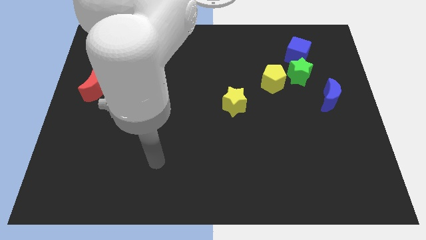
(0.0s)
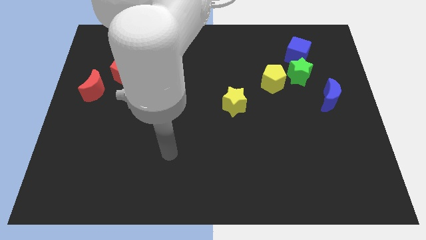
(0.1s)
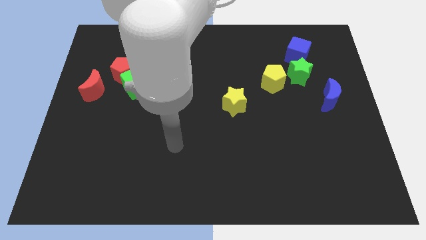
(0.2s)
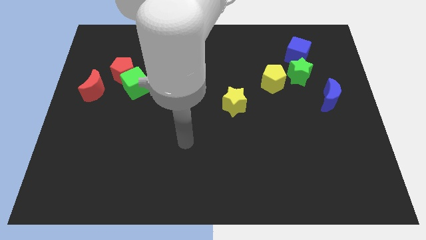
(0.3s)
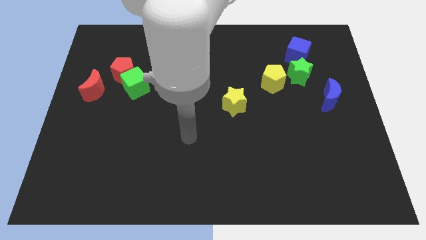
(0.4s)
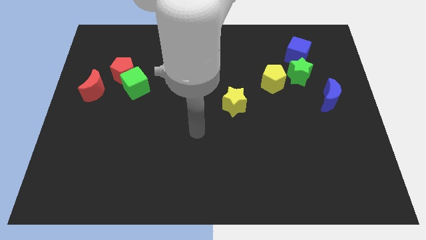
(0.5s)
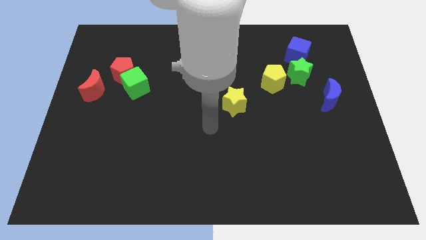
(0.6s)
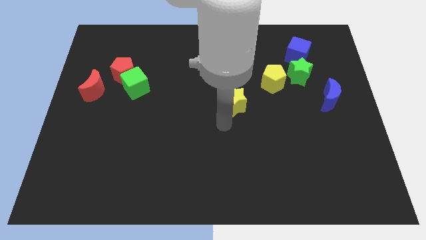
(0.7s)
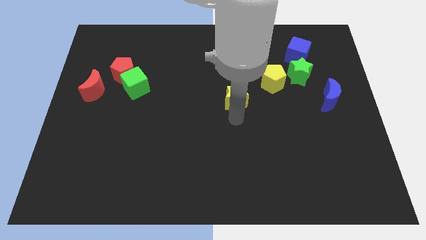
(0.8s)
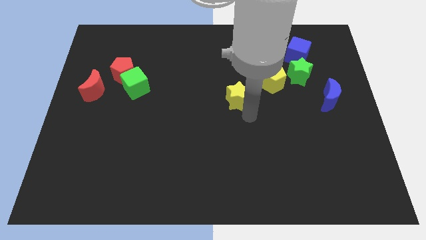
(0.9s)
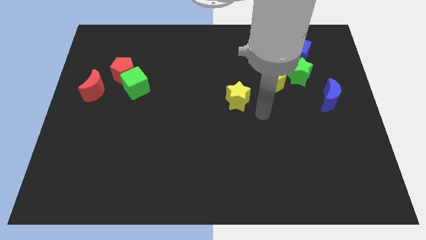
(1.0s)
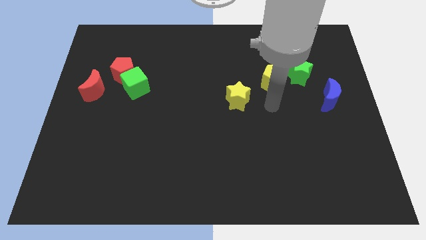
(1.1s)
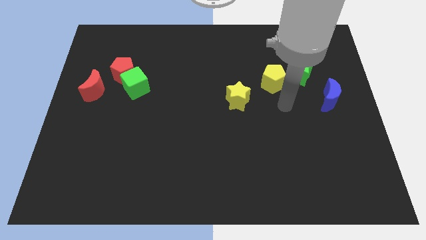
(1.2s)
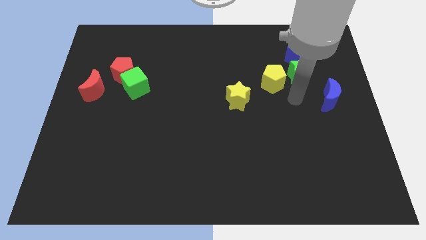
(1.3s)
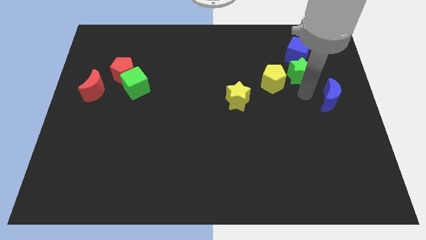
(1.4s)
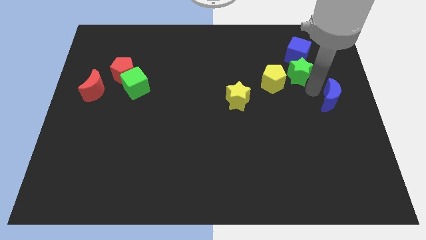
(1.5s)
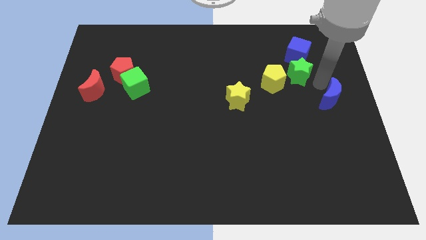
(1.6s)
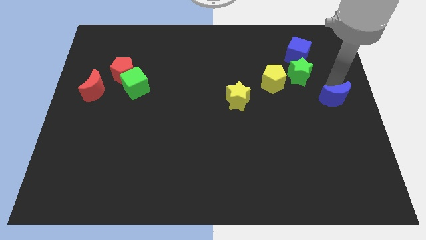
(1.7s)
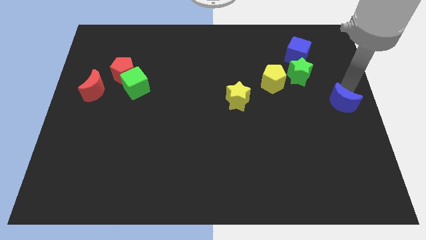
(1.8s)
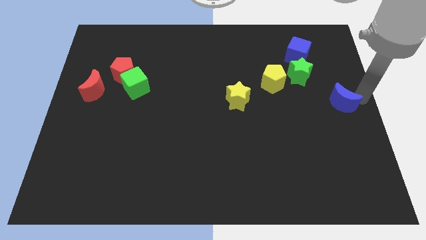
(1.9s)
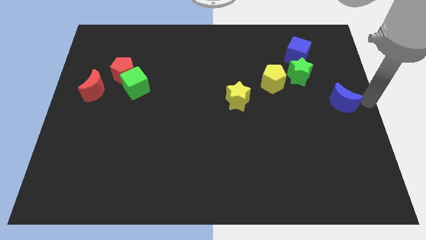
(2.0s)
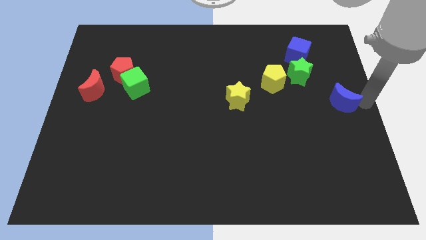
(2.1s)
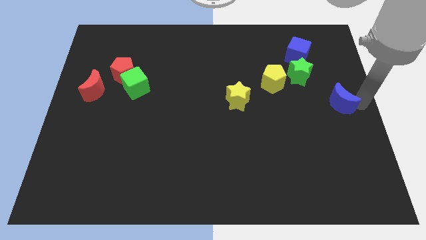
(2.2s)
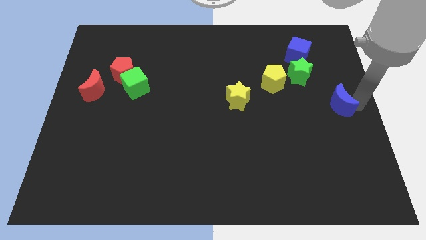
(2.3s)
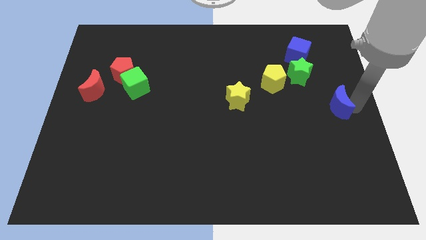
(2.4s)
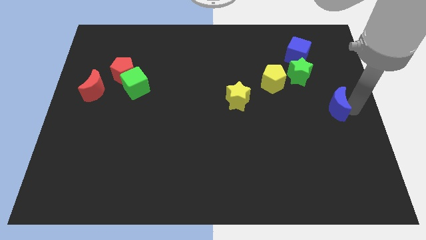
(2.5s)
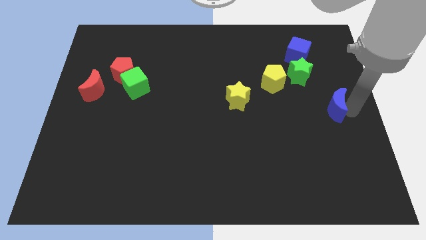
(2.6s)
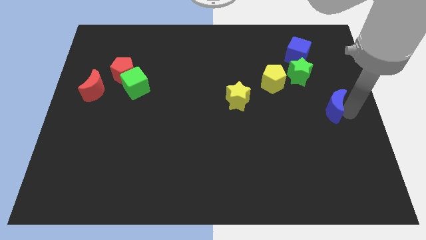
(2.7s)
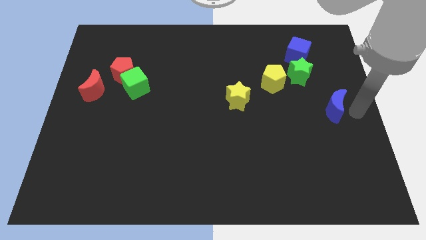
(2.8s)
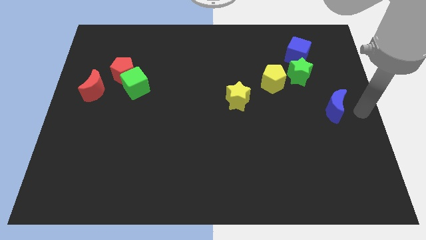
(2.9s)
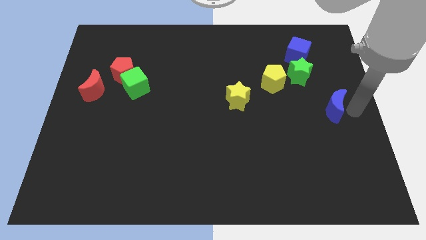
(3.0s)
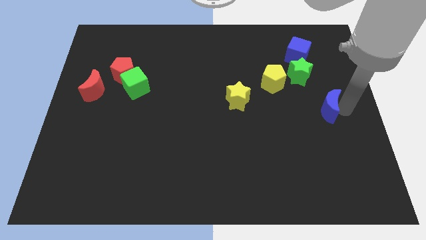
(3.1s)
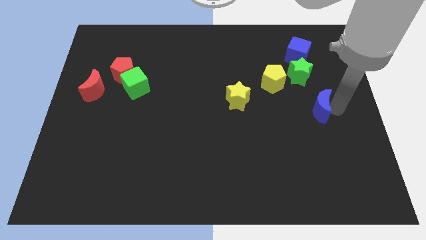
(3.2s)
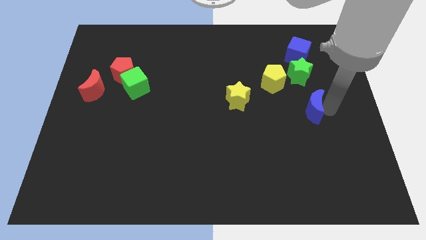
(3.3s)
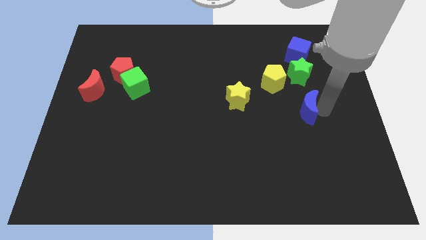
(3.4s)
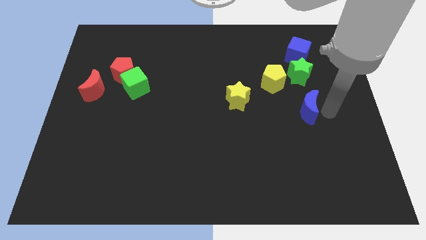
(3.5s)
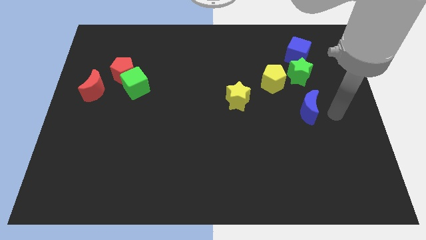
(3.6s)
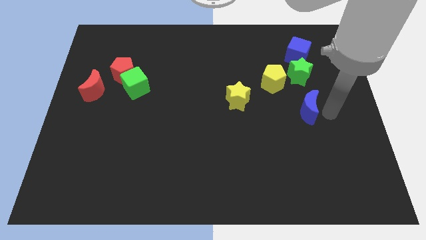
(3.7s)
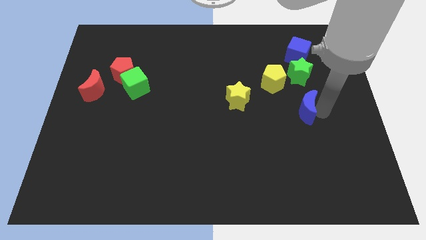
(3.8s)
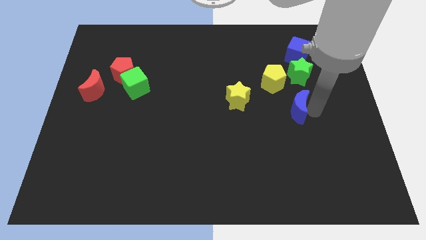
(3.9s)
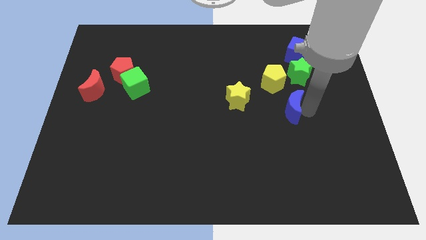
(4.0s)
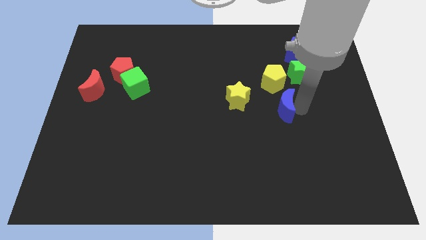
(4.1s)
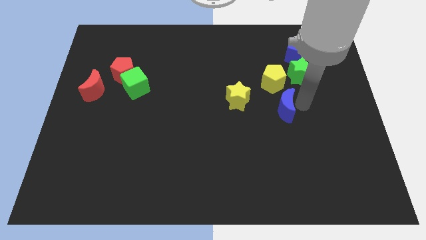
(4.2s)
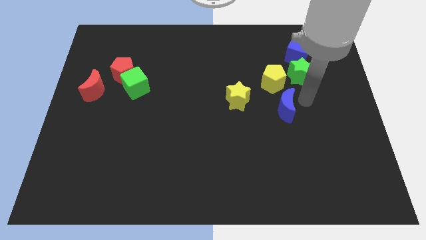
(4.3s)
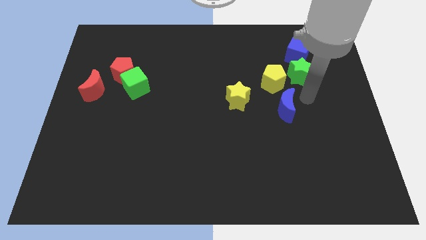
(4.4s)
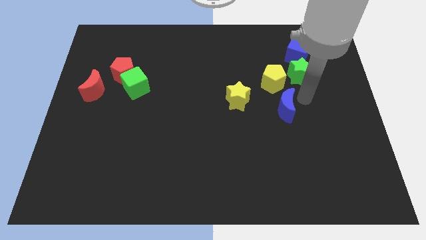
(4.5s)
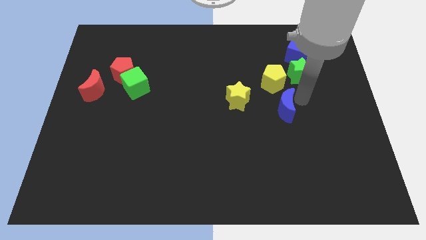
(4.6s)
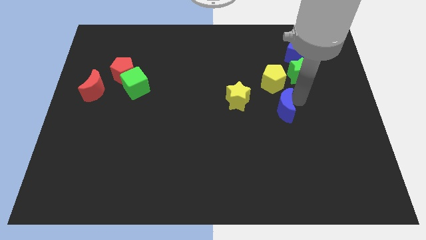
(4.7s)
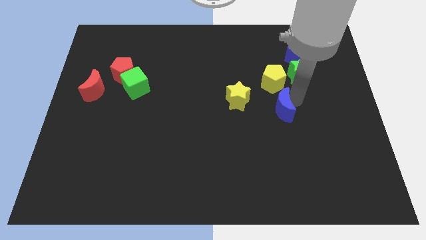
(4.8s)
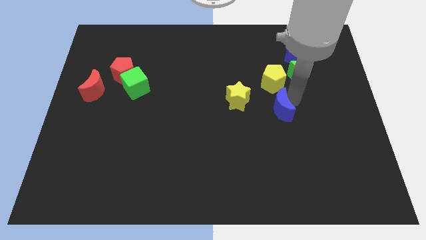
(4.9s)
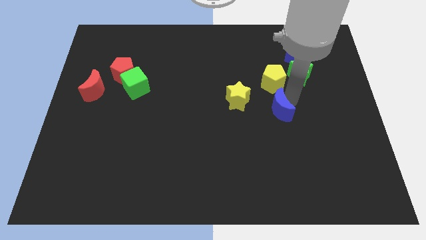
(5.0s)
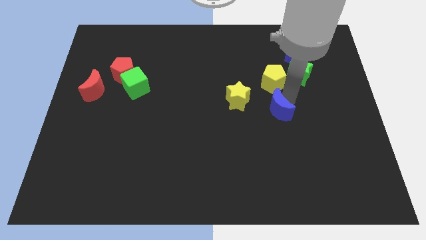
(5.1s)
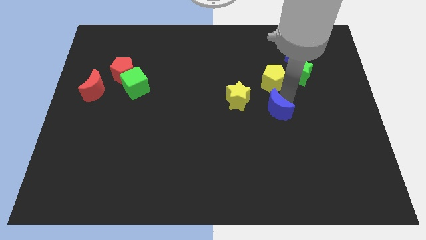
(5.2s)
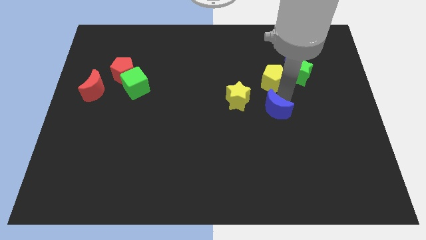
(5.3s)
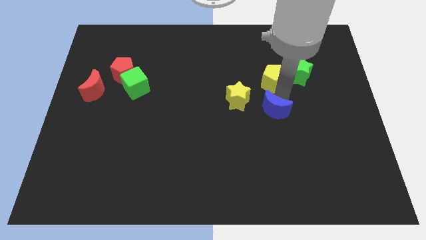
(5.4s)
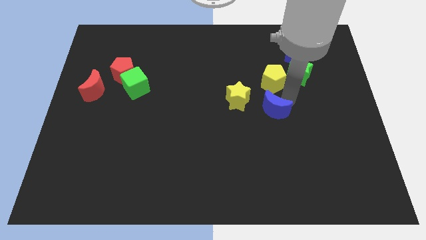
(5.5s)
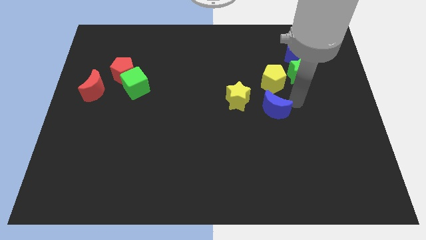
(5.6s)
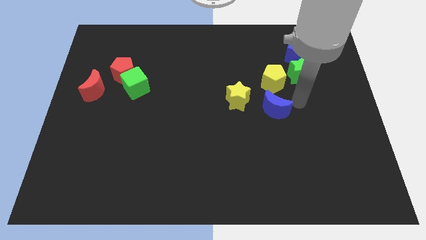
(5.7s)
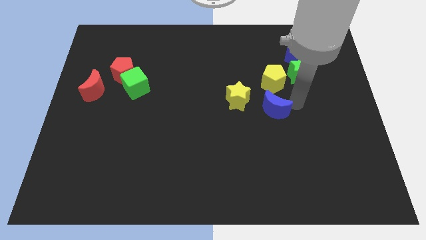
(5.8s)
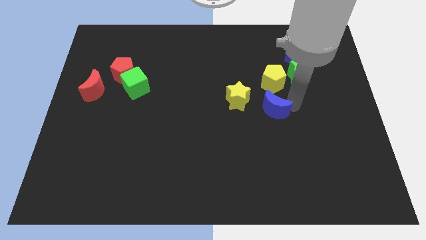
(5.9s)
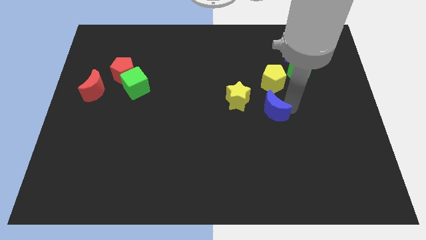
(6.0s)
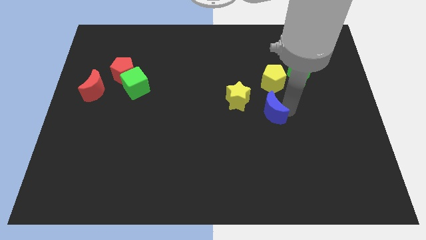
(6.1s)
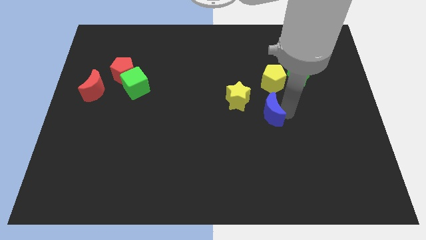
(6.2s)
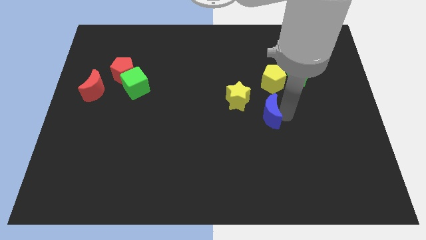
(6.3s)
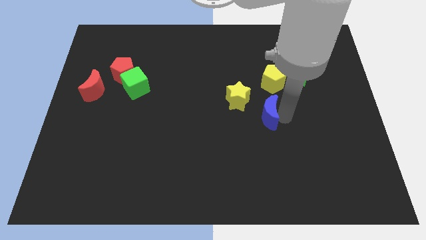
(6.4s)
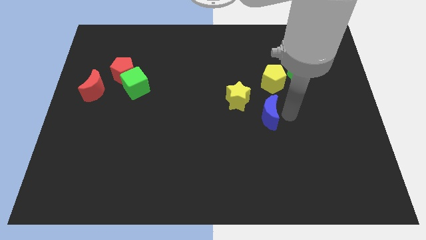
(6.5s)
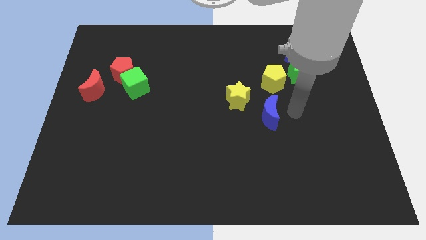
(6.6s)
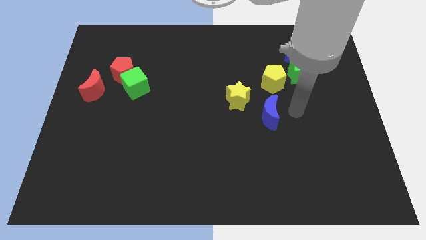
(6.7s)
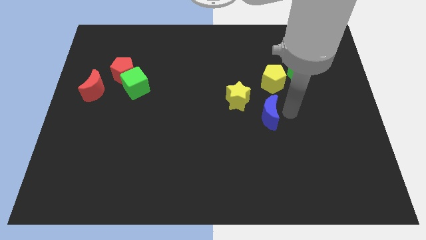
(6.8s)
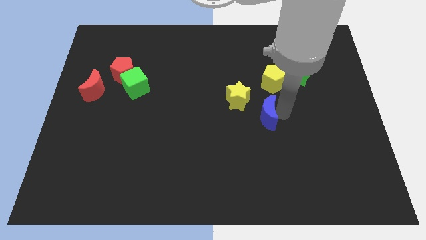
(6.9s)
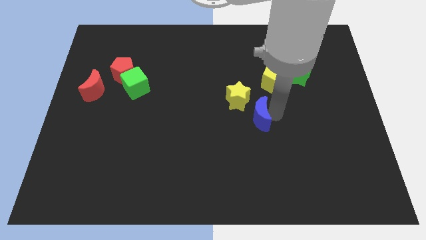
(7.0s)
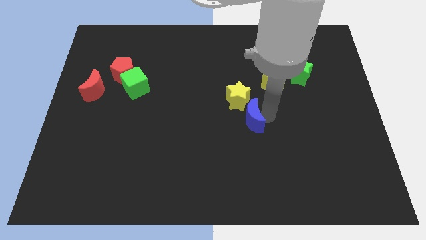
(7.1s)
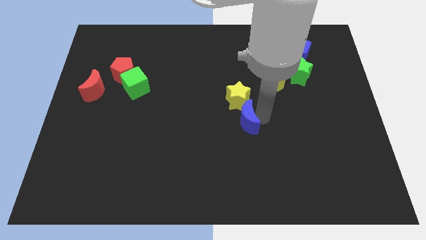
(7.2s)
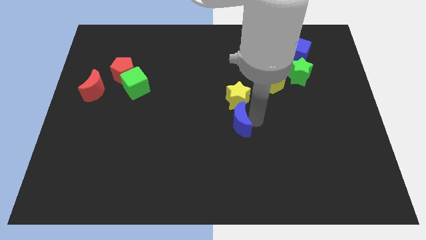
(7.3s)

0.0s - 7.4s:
move the blue moon diagonally down and to the left of the yellow star
